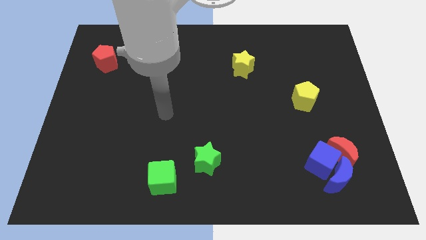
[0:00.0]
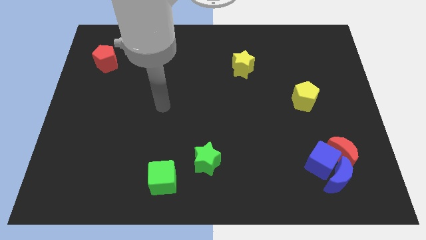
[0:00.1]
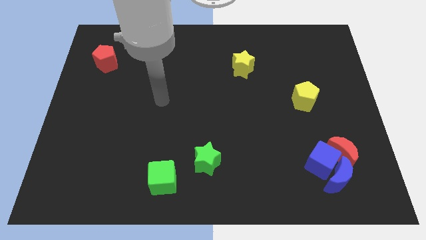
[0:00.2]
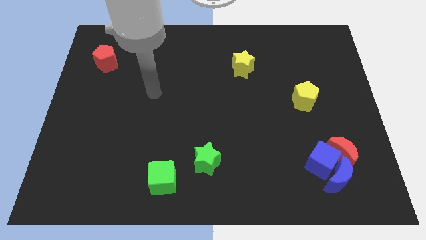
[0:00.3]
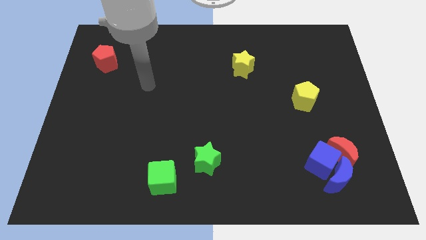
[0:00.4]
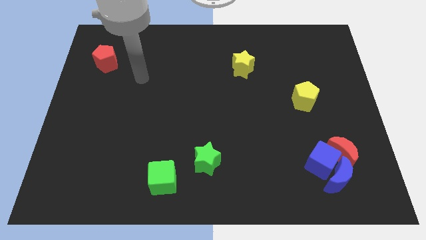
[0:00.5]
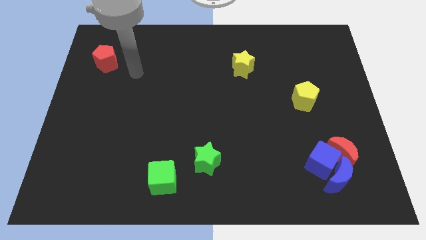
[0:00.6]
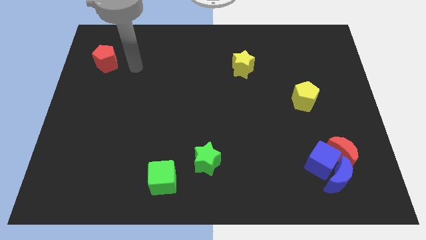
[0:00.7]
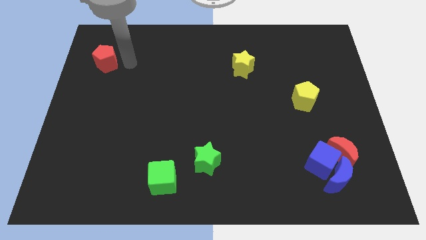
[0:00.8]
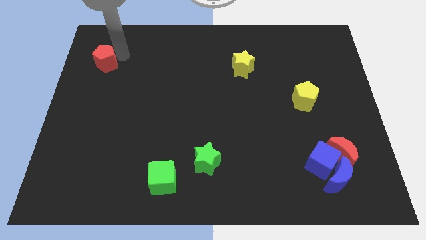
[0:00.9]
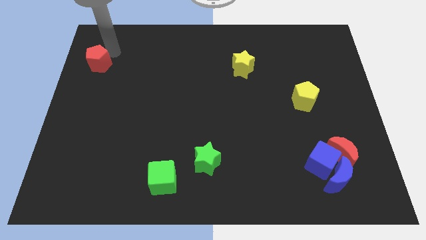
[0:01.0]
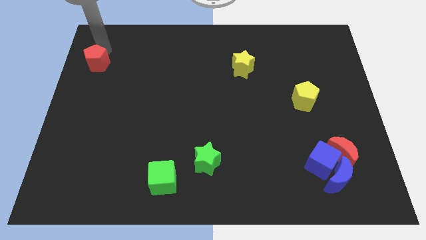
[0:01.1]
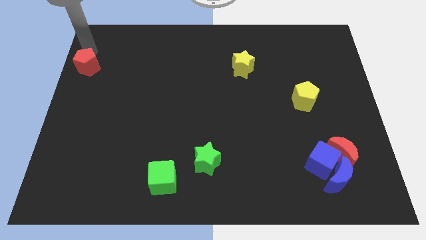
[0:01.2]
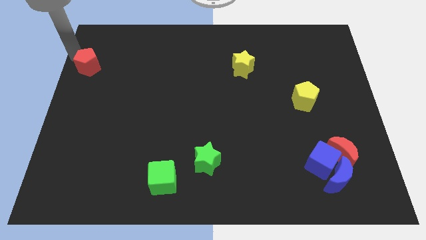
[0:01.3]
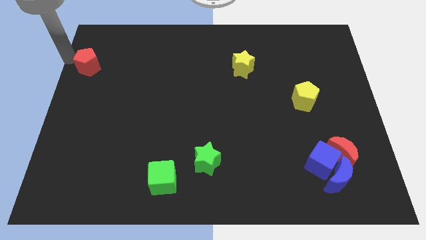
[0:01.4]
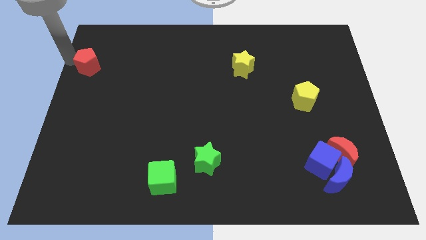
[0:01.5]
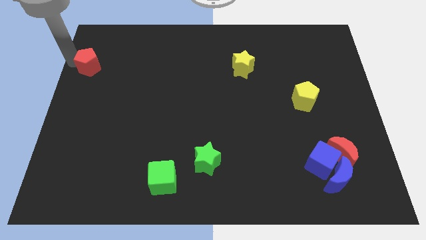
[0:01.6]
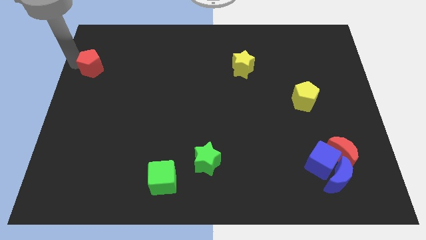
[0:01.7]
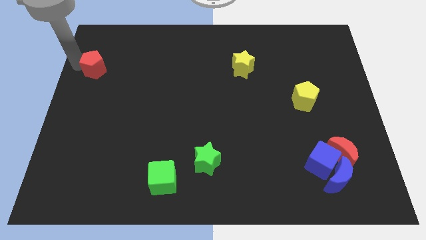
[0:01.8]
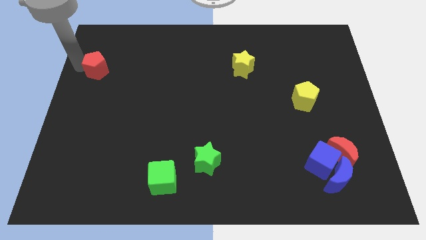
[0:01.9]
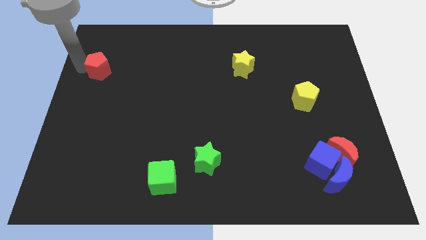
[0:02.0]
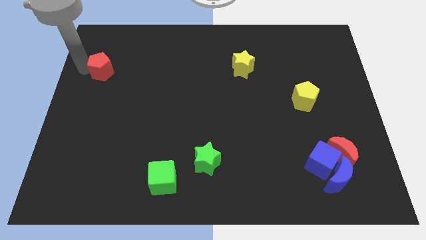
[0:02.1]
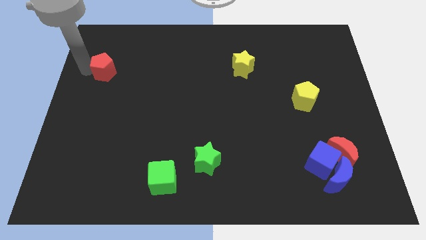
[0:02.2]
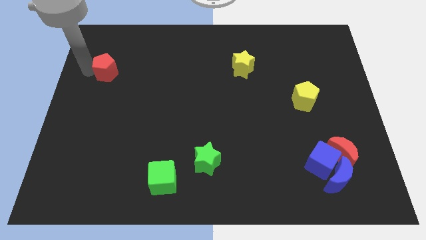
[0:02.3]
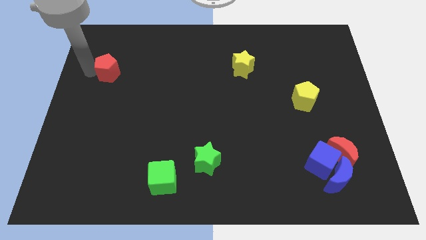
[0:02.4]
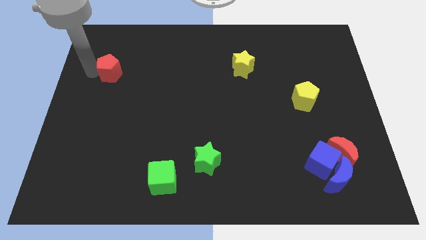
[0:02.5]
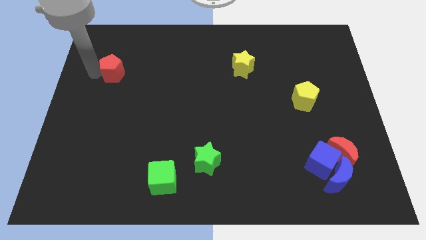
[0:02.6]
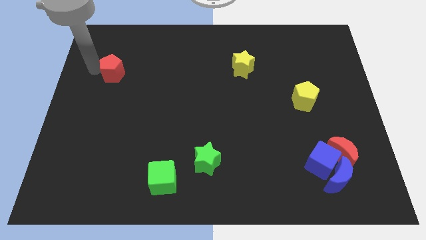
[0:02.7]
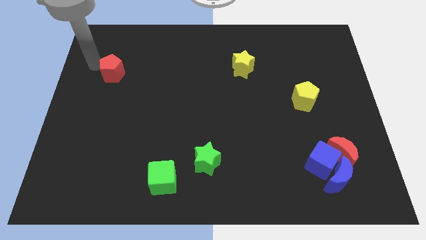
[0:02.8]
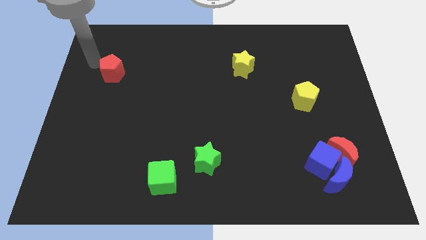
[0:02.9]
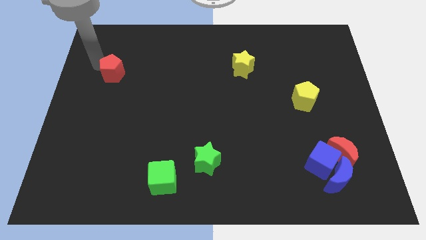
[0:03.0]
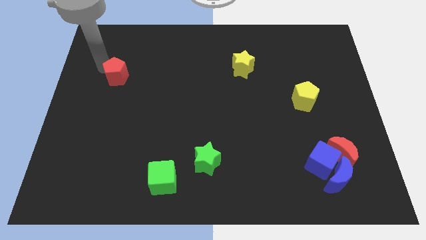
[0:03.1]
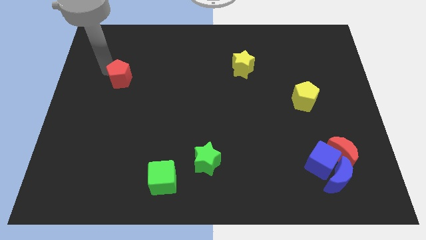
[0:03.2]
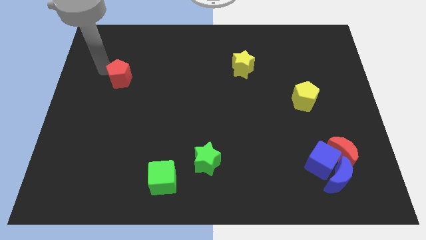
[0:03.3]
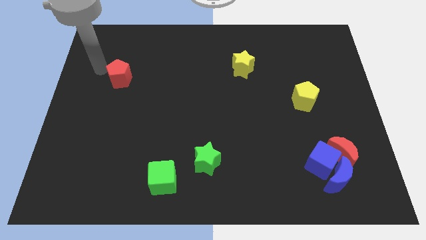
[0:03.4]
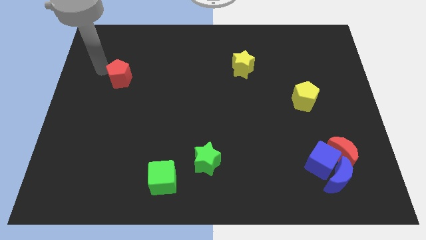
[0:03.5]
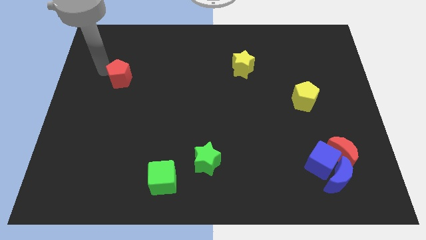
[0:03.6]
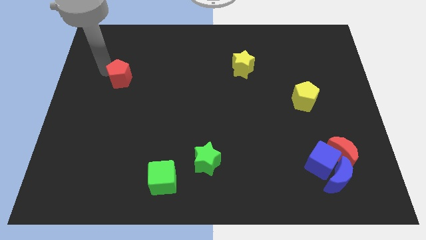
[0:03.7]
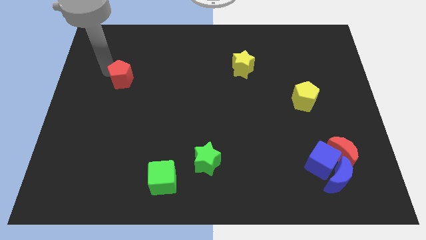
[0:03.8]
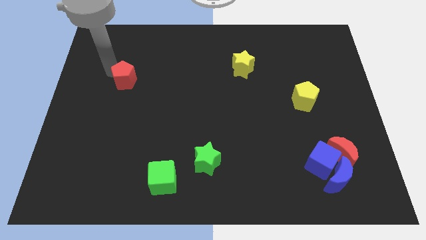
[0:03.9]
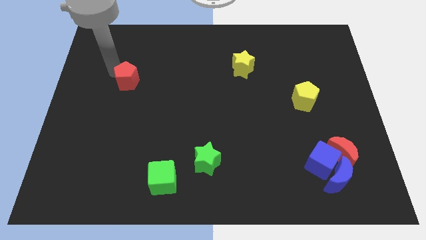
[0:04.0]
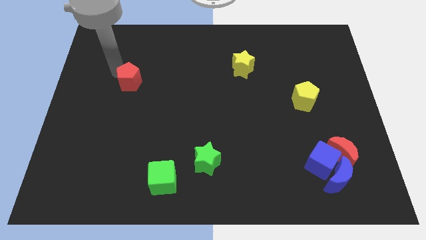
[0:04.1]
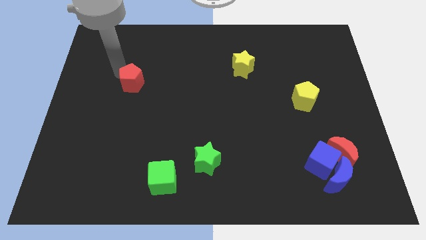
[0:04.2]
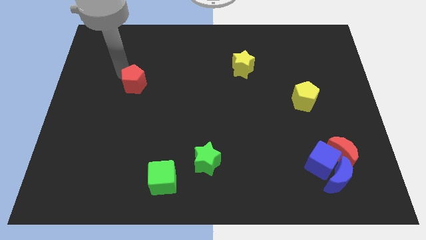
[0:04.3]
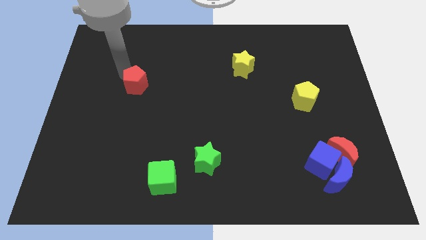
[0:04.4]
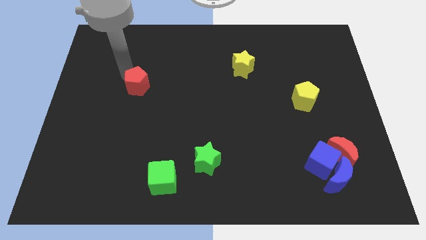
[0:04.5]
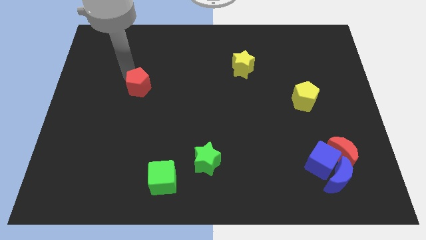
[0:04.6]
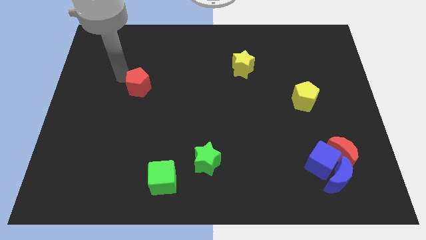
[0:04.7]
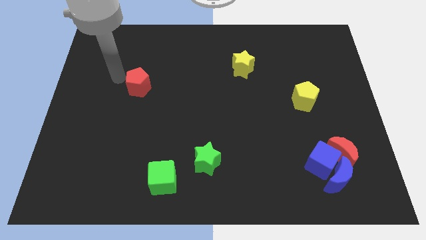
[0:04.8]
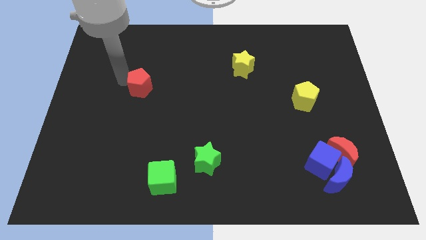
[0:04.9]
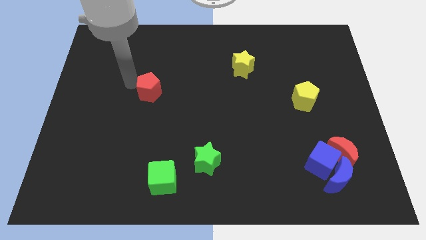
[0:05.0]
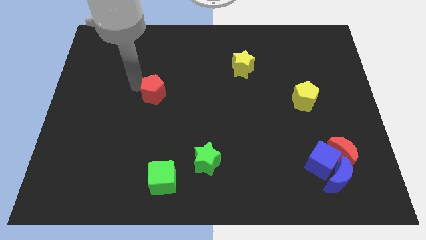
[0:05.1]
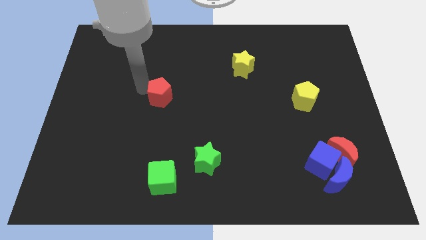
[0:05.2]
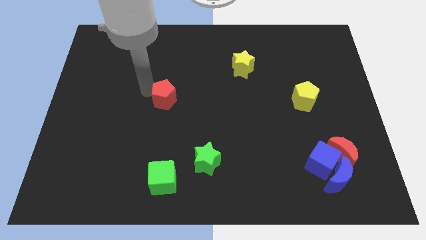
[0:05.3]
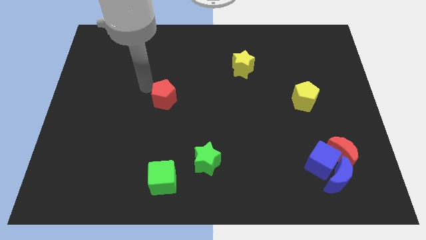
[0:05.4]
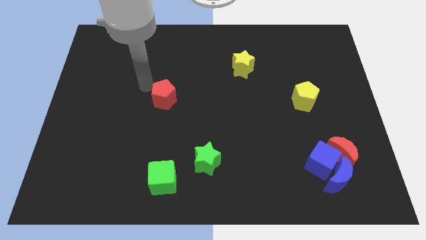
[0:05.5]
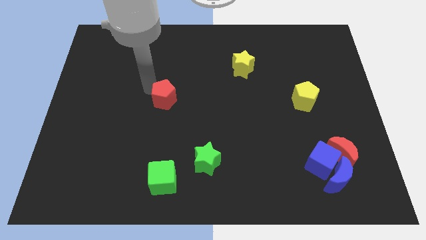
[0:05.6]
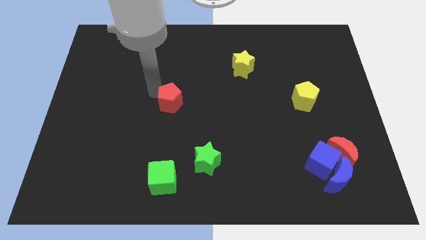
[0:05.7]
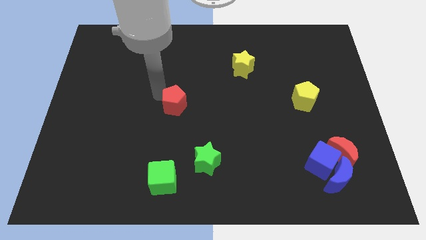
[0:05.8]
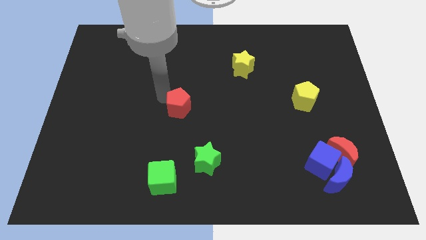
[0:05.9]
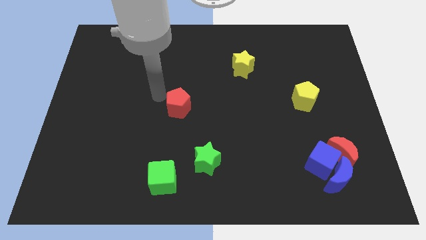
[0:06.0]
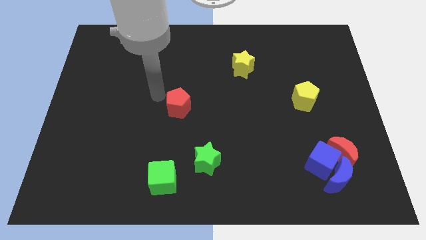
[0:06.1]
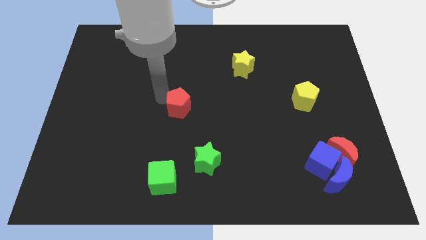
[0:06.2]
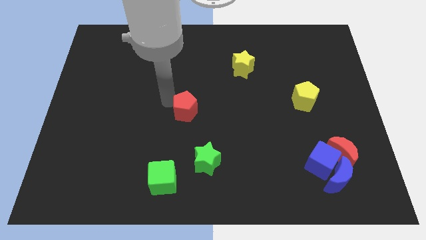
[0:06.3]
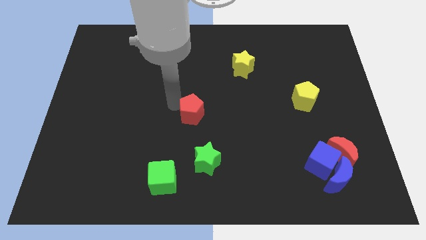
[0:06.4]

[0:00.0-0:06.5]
slide the red pentagon to the top of the green star

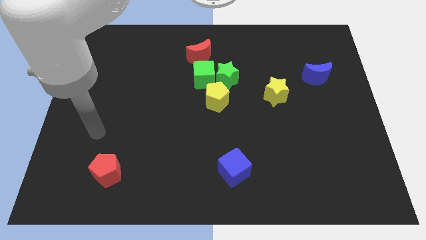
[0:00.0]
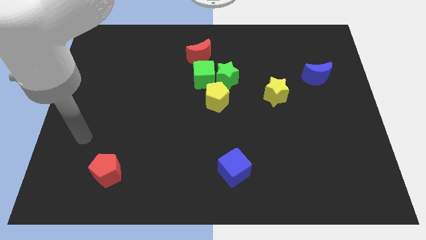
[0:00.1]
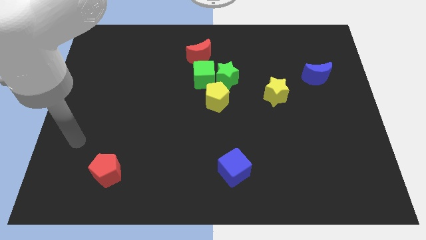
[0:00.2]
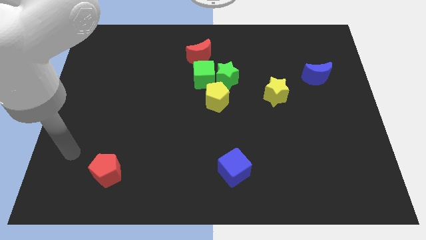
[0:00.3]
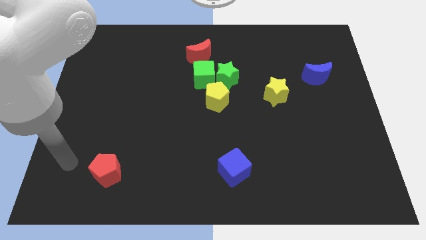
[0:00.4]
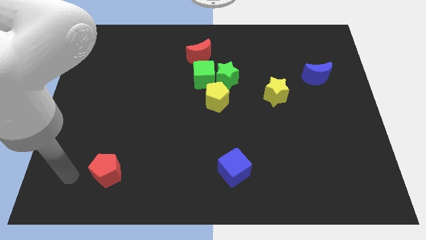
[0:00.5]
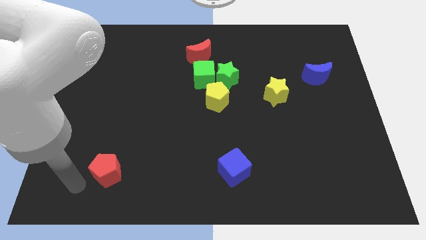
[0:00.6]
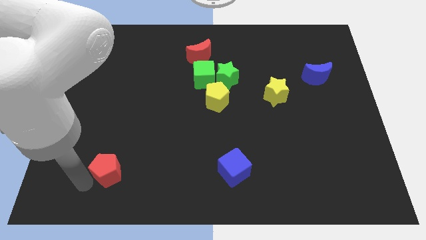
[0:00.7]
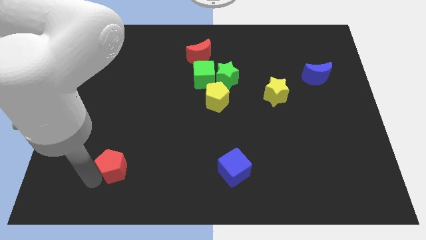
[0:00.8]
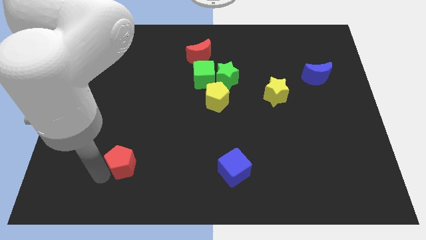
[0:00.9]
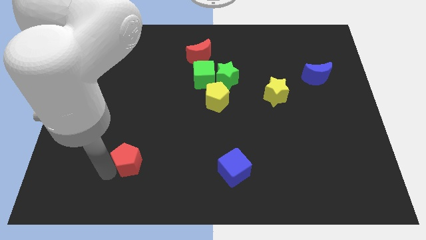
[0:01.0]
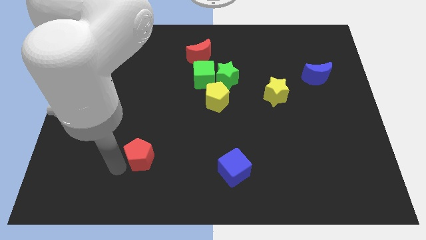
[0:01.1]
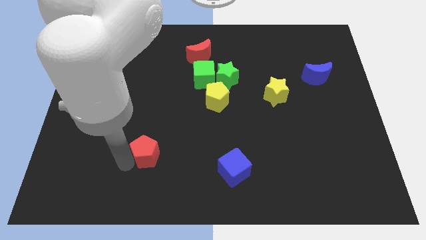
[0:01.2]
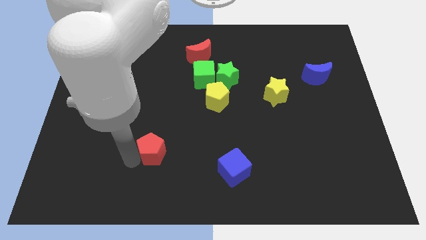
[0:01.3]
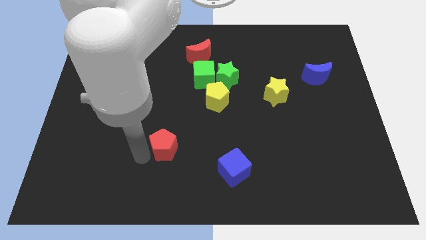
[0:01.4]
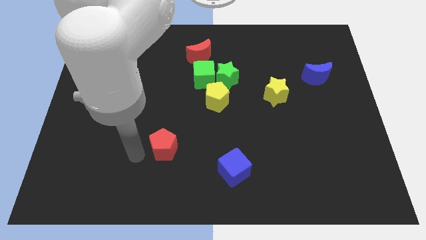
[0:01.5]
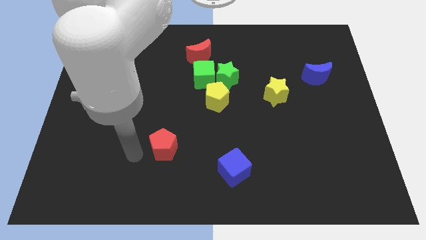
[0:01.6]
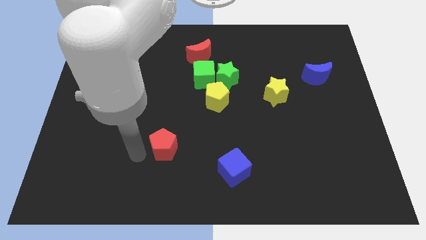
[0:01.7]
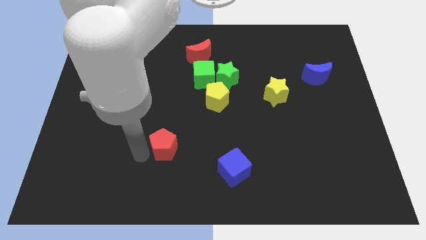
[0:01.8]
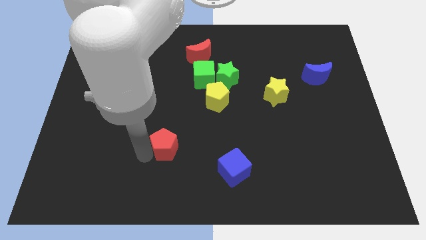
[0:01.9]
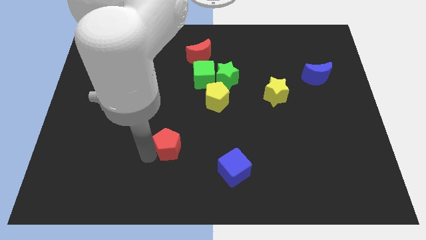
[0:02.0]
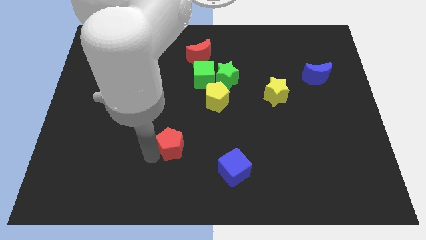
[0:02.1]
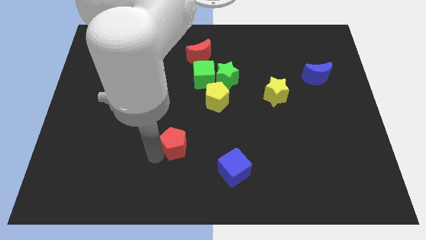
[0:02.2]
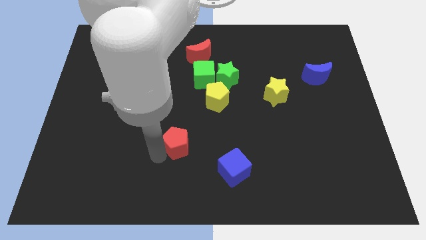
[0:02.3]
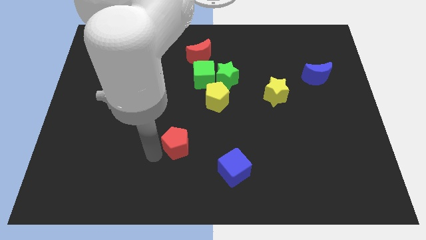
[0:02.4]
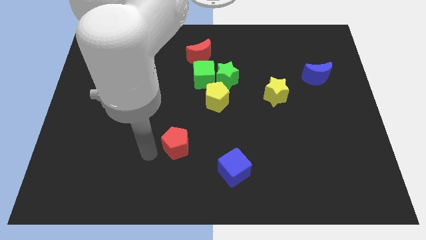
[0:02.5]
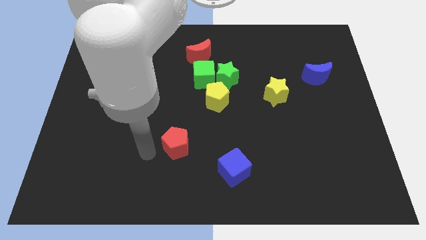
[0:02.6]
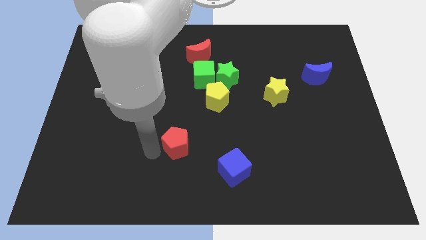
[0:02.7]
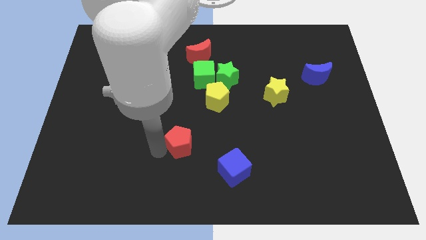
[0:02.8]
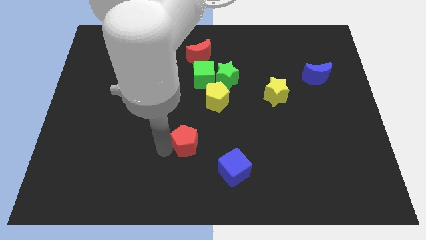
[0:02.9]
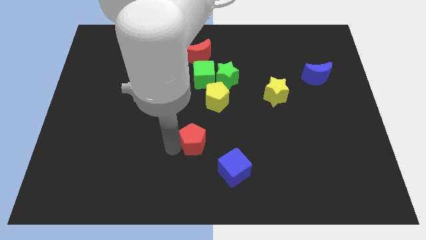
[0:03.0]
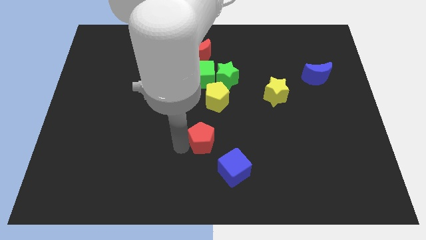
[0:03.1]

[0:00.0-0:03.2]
move the red pentagon below the yellow pentagon
